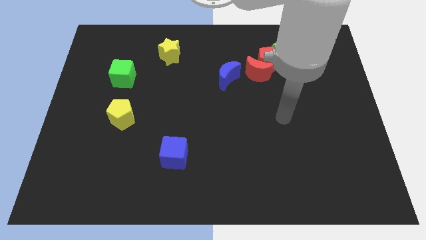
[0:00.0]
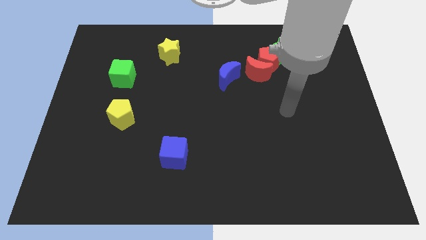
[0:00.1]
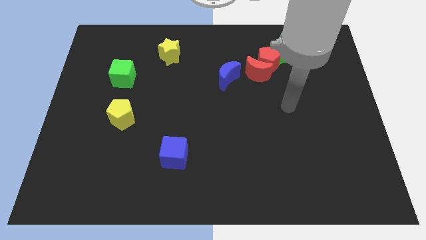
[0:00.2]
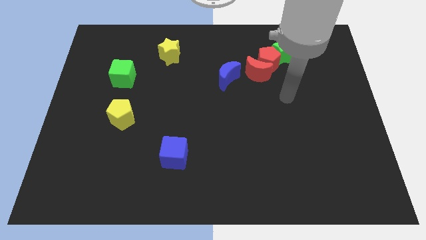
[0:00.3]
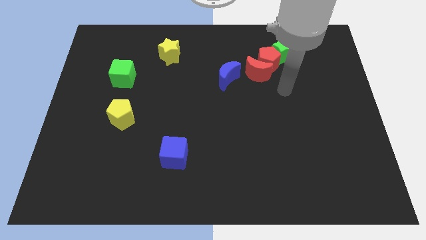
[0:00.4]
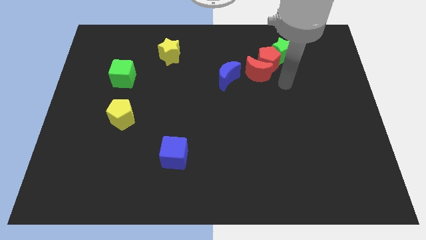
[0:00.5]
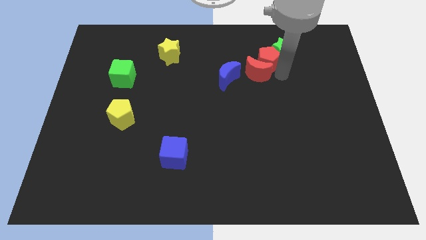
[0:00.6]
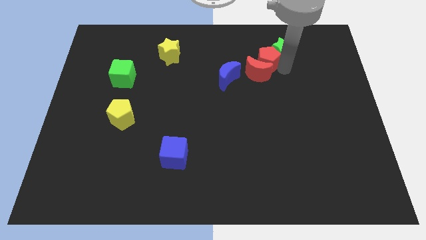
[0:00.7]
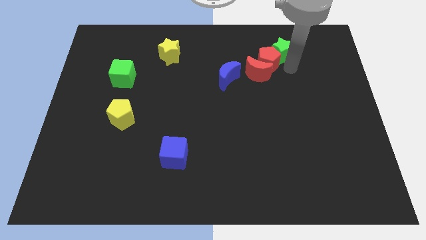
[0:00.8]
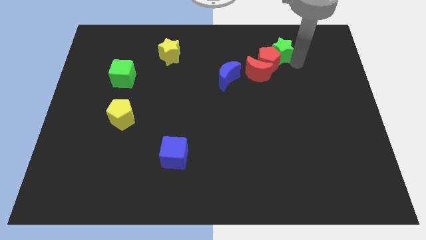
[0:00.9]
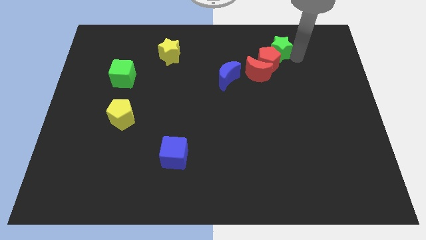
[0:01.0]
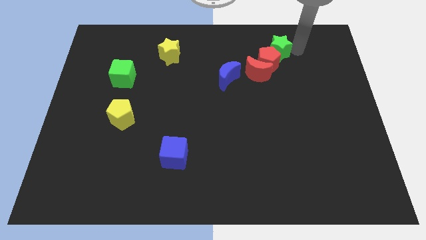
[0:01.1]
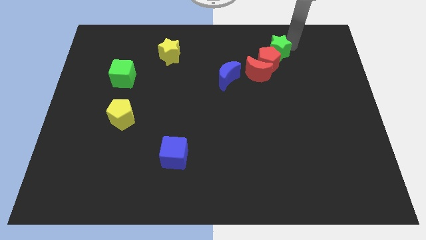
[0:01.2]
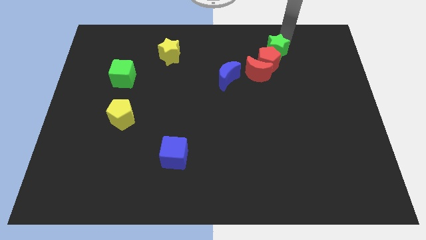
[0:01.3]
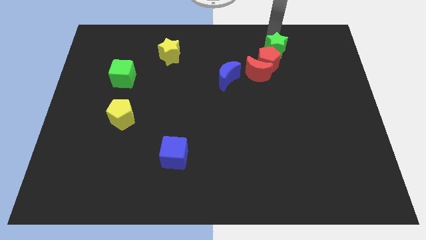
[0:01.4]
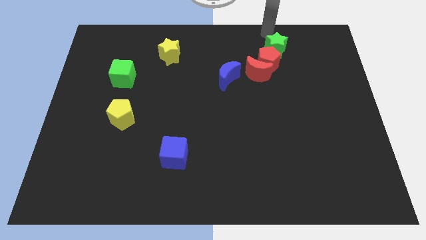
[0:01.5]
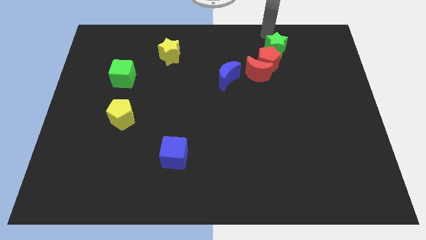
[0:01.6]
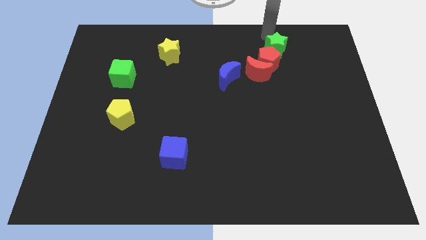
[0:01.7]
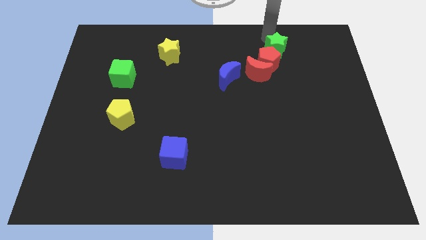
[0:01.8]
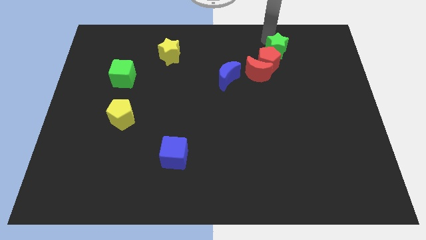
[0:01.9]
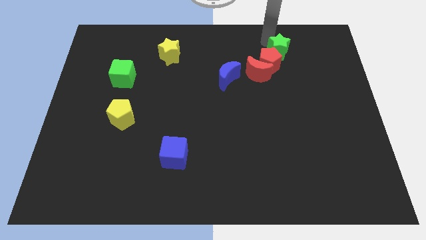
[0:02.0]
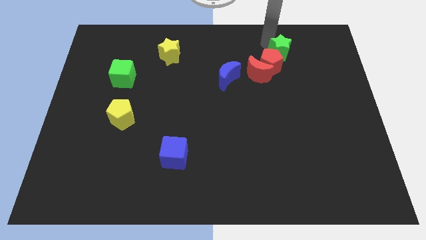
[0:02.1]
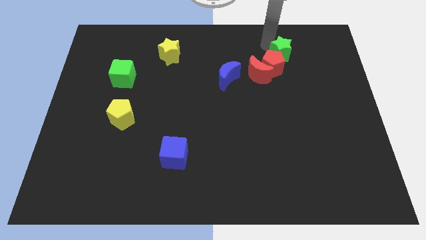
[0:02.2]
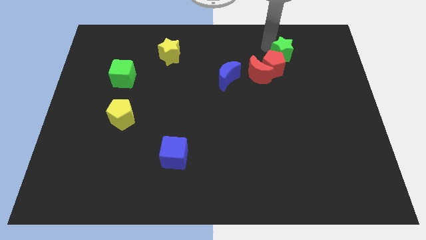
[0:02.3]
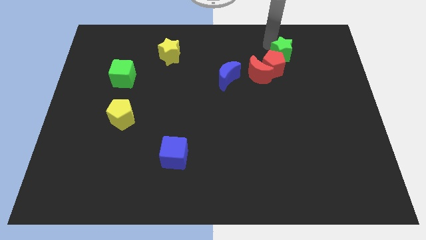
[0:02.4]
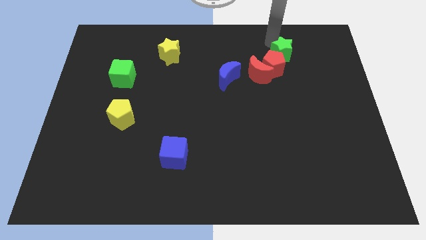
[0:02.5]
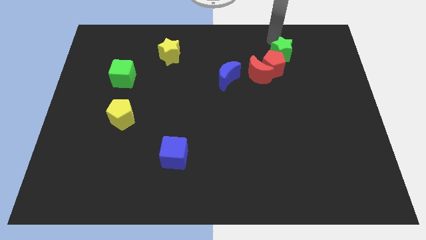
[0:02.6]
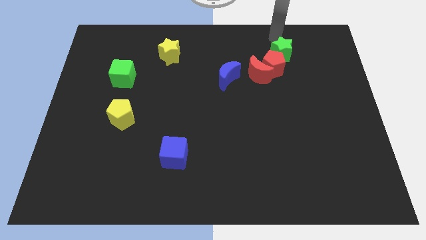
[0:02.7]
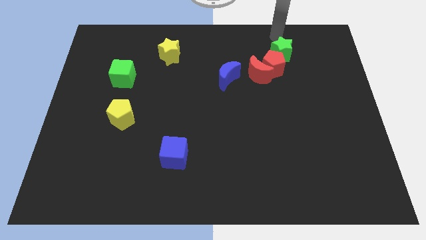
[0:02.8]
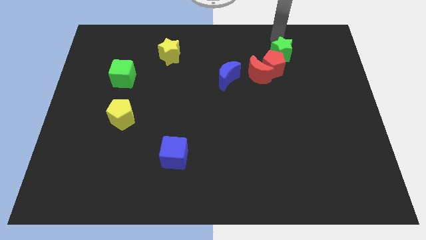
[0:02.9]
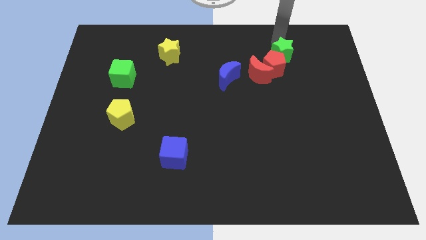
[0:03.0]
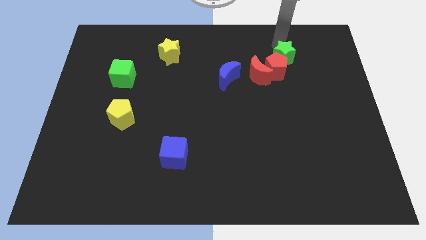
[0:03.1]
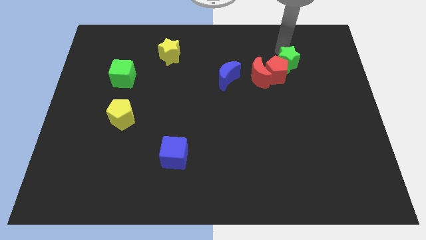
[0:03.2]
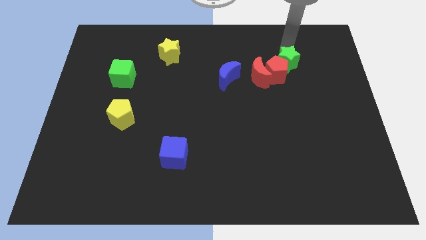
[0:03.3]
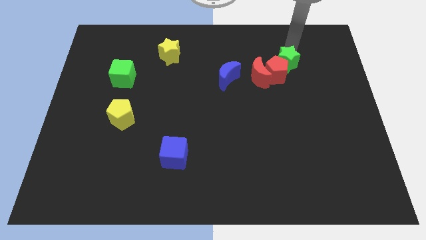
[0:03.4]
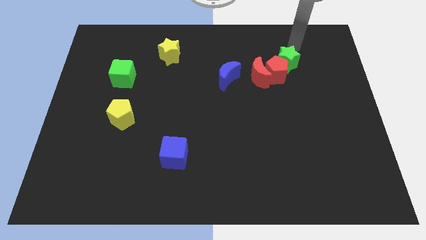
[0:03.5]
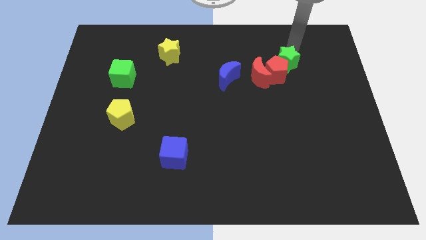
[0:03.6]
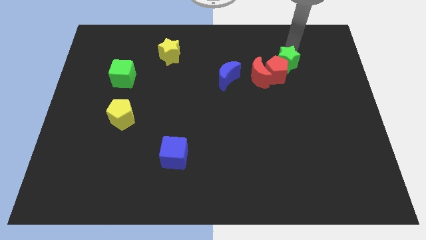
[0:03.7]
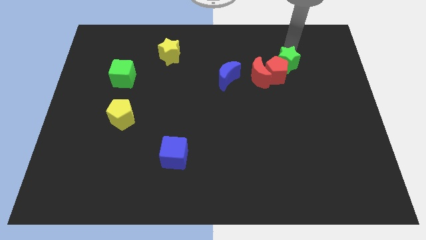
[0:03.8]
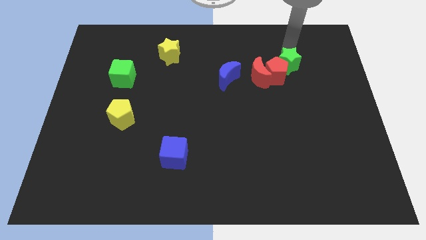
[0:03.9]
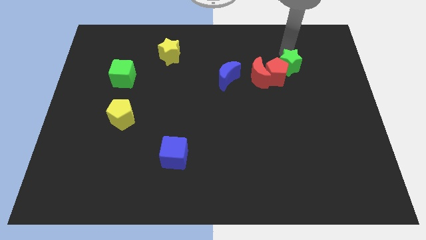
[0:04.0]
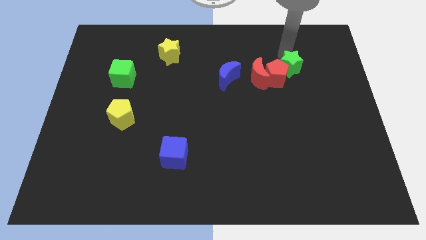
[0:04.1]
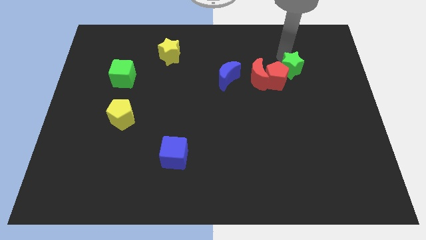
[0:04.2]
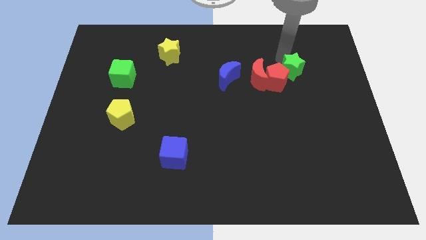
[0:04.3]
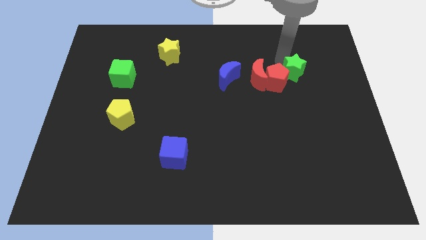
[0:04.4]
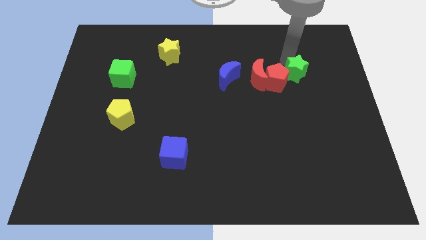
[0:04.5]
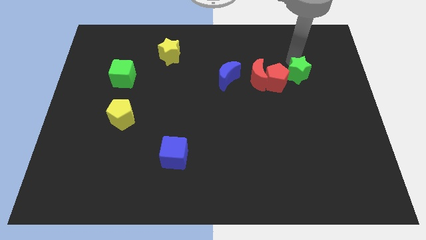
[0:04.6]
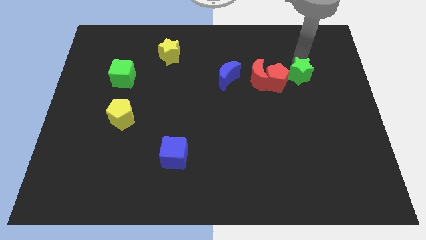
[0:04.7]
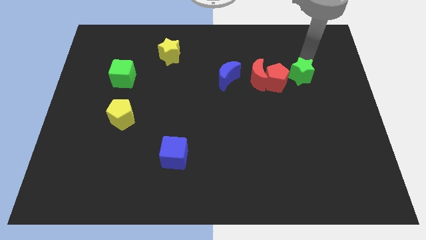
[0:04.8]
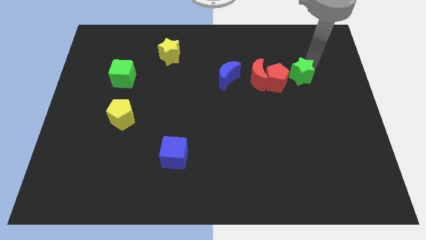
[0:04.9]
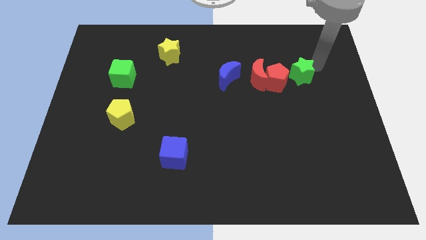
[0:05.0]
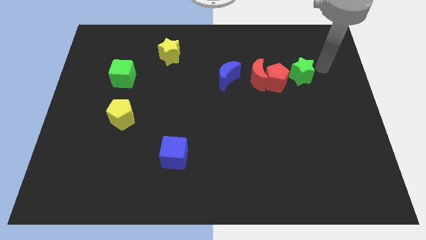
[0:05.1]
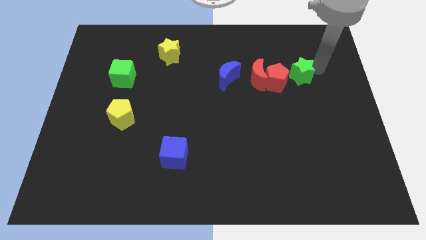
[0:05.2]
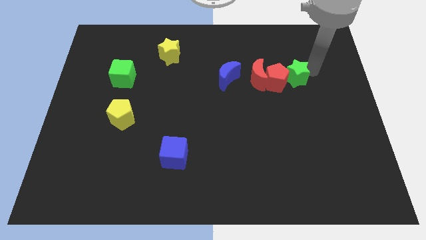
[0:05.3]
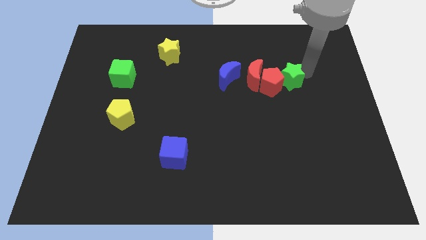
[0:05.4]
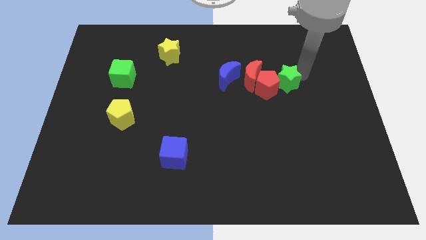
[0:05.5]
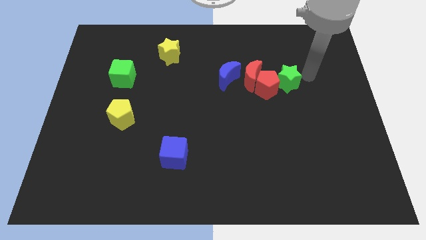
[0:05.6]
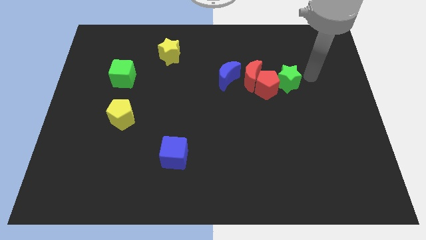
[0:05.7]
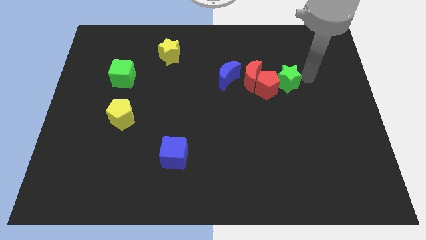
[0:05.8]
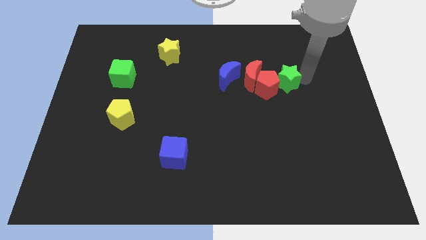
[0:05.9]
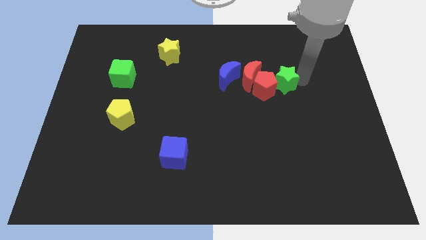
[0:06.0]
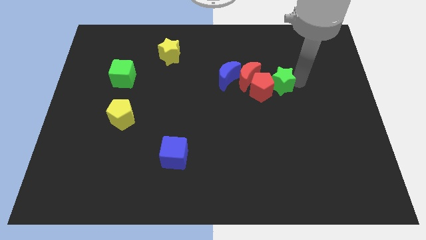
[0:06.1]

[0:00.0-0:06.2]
slightly push the green star down and left

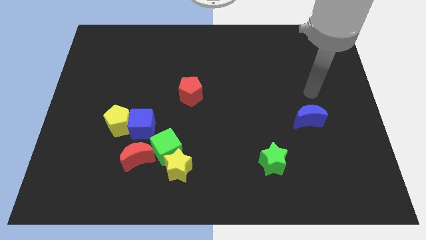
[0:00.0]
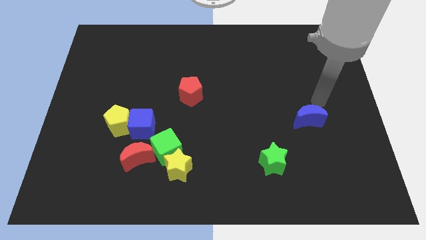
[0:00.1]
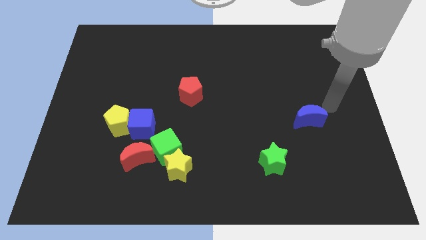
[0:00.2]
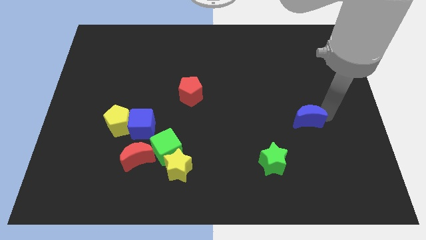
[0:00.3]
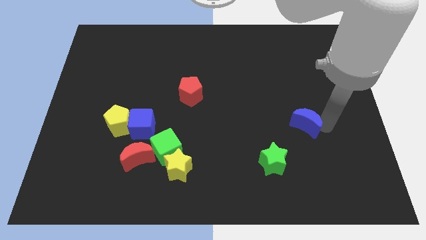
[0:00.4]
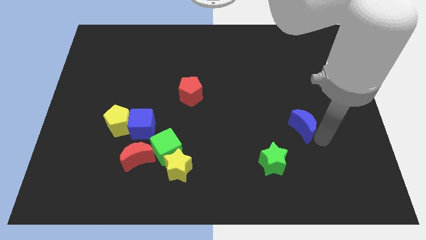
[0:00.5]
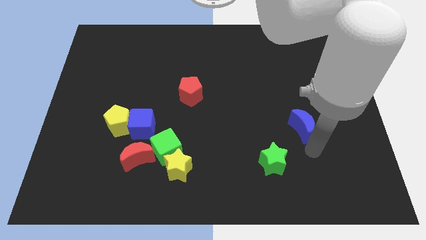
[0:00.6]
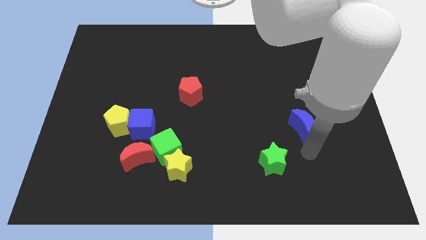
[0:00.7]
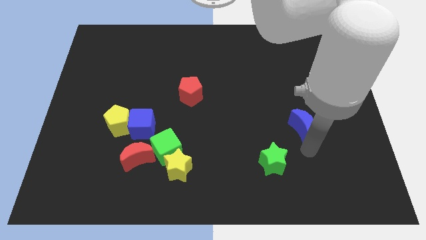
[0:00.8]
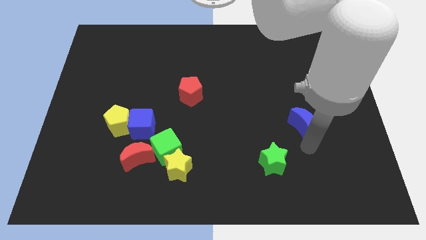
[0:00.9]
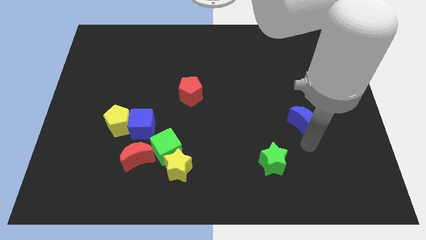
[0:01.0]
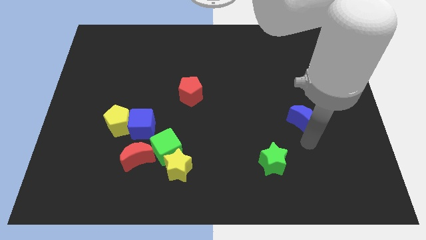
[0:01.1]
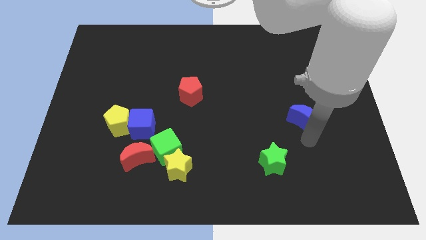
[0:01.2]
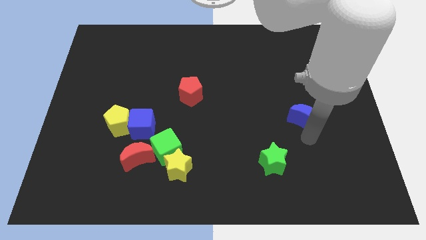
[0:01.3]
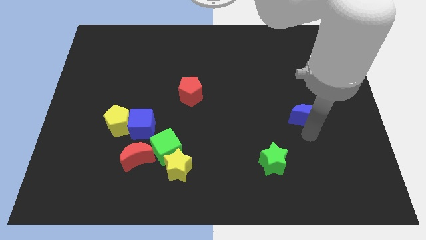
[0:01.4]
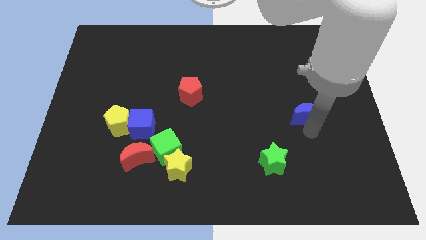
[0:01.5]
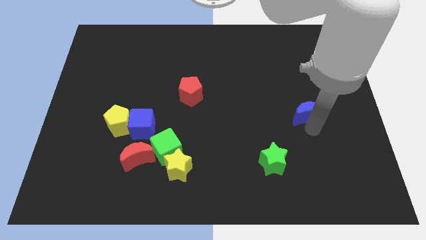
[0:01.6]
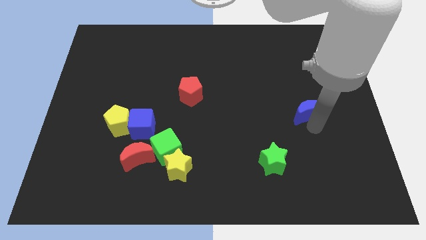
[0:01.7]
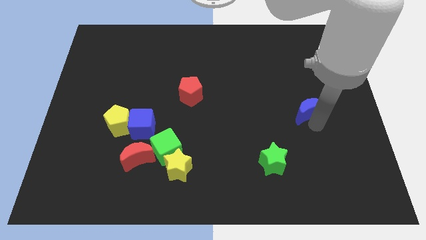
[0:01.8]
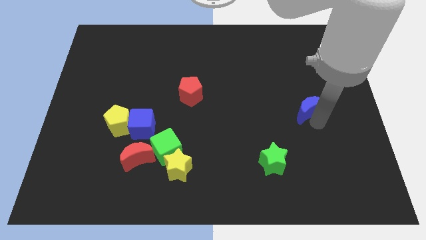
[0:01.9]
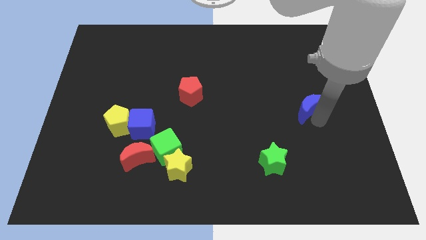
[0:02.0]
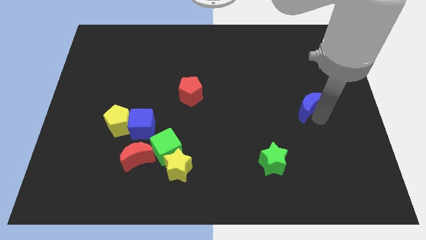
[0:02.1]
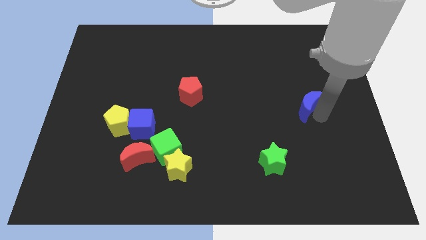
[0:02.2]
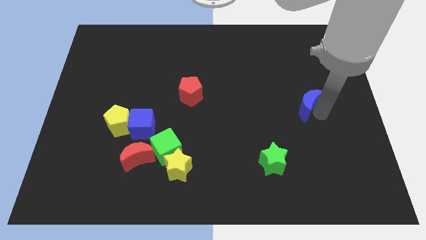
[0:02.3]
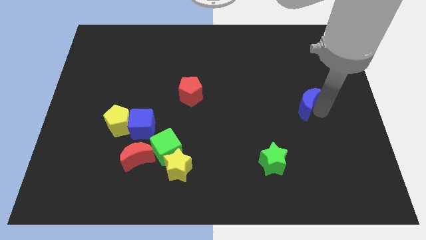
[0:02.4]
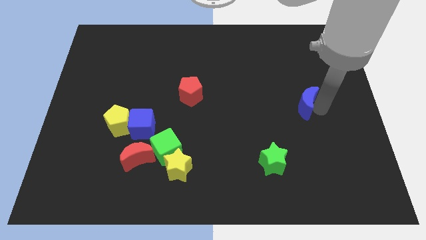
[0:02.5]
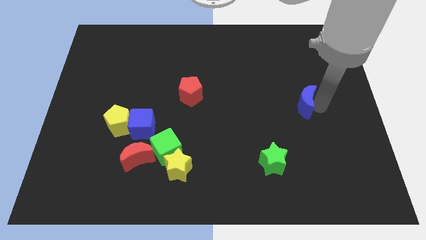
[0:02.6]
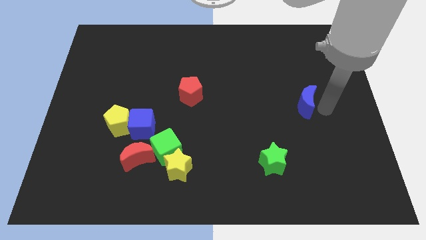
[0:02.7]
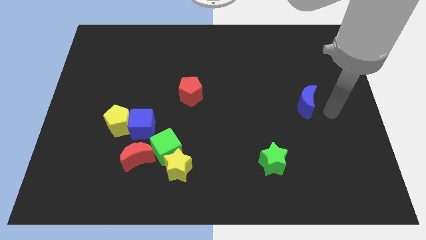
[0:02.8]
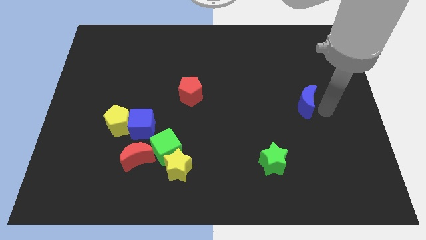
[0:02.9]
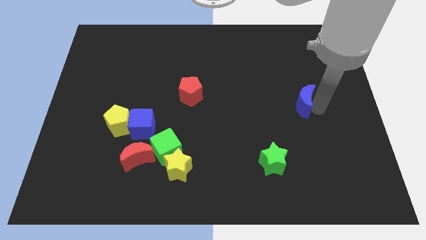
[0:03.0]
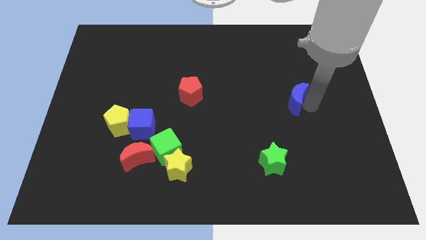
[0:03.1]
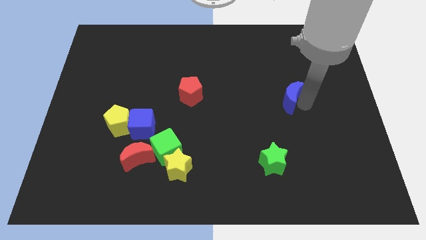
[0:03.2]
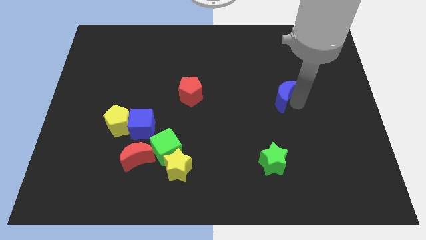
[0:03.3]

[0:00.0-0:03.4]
slightly push the blue moon upwards and to the left
